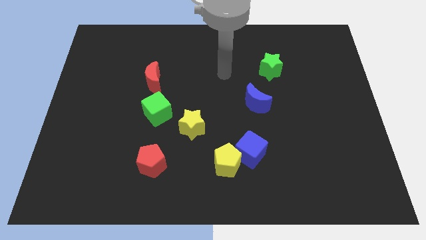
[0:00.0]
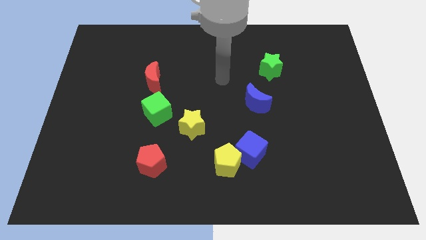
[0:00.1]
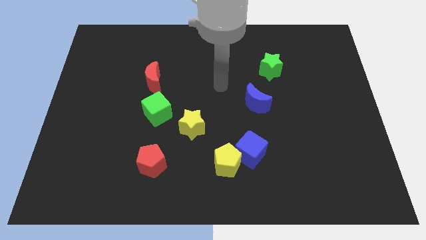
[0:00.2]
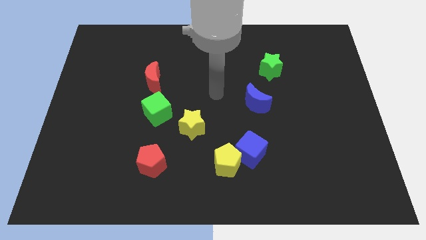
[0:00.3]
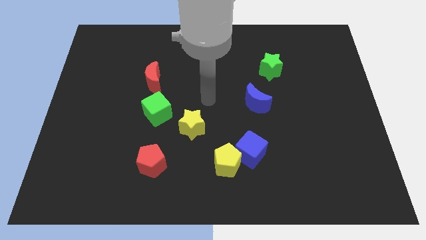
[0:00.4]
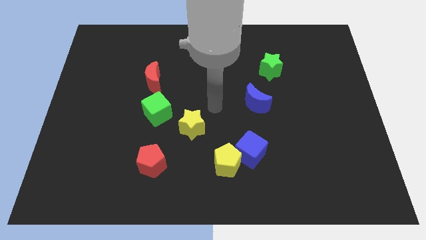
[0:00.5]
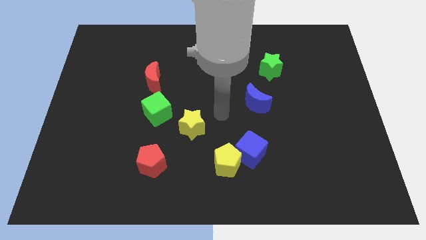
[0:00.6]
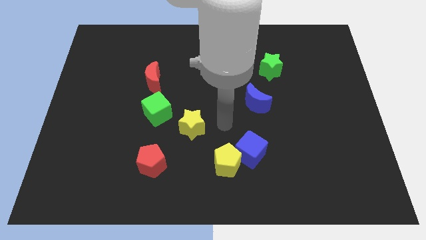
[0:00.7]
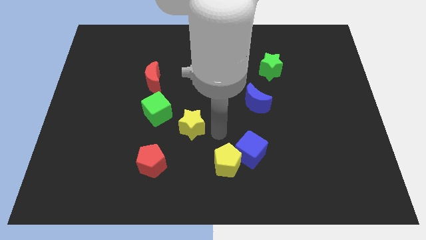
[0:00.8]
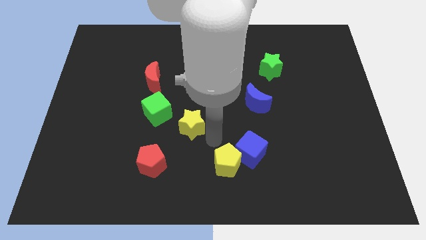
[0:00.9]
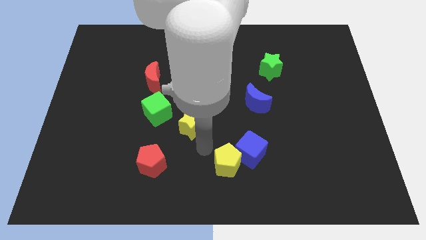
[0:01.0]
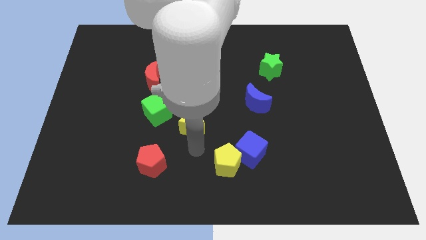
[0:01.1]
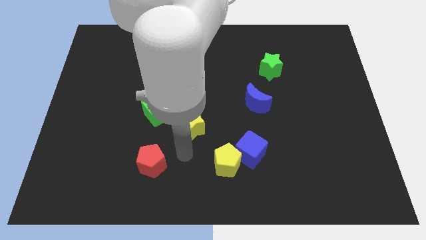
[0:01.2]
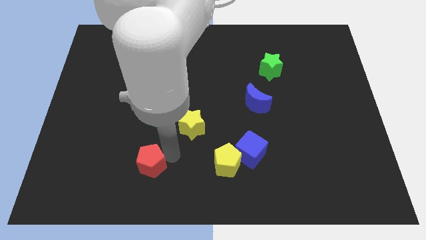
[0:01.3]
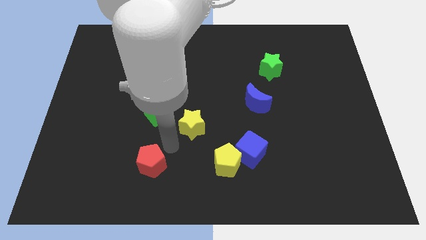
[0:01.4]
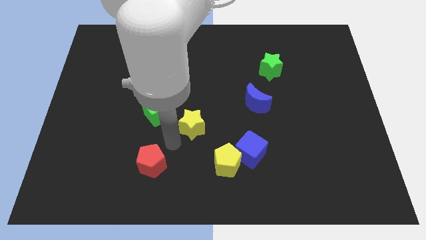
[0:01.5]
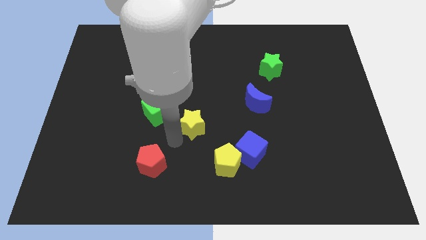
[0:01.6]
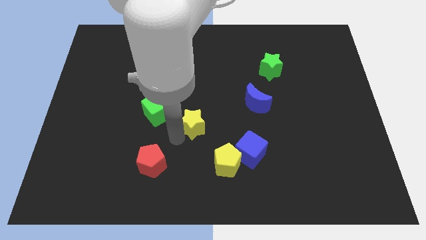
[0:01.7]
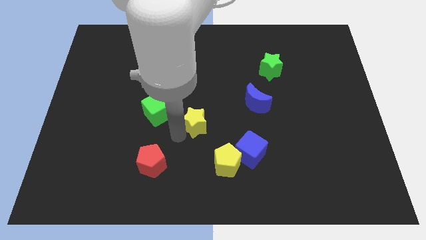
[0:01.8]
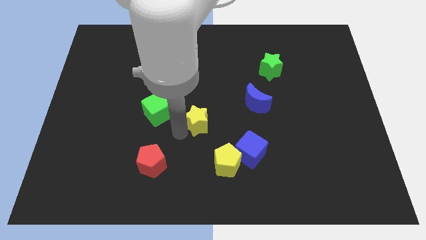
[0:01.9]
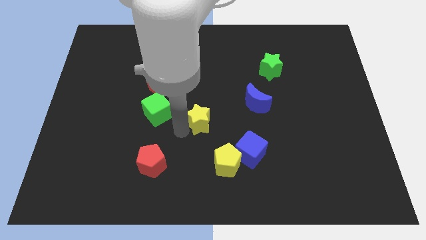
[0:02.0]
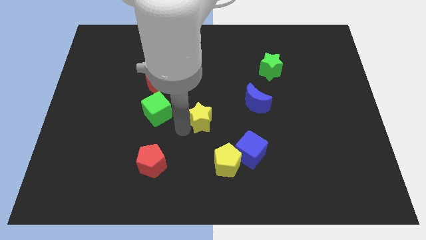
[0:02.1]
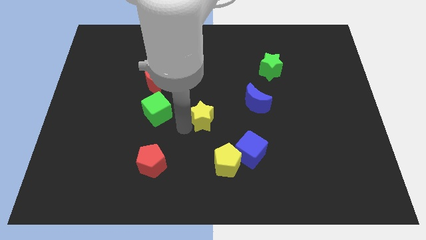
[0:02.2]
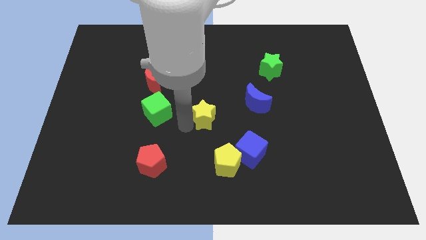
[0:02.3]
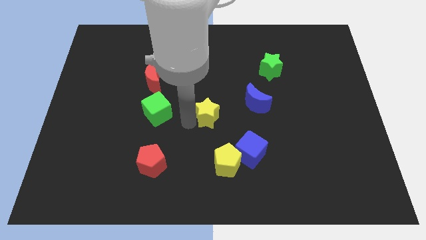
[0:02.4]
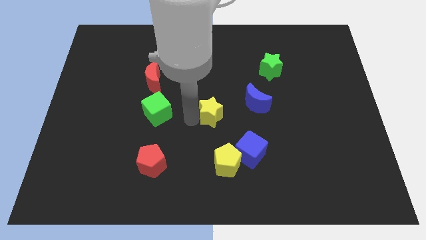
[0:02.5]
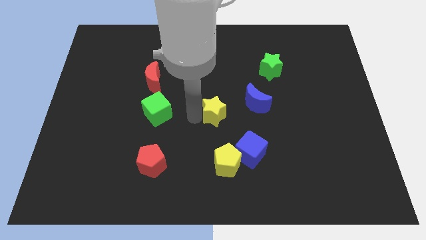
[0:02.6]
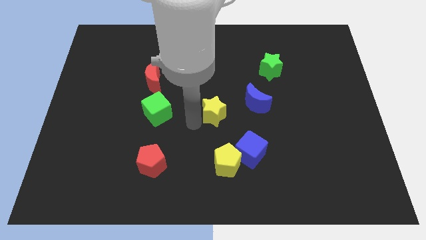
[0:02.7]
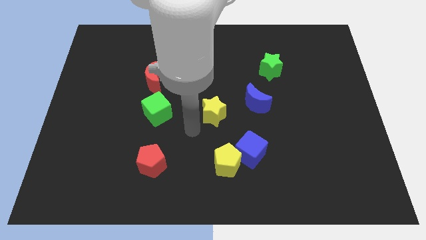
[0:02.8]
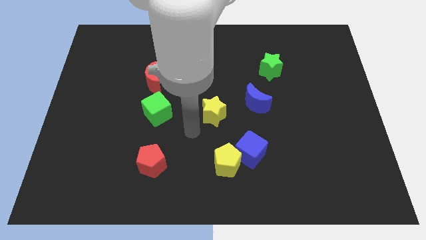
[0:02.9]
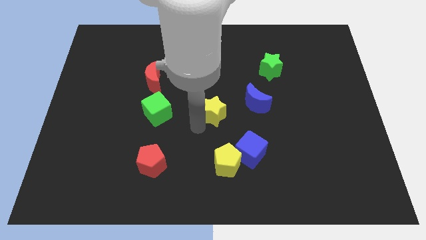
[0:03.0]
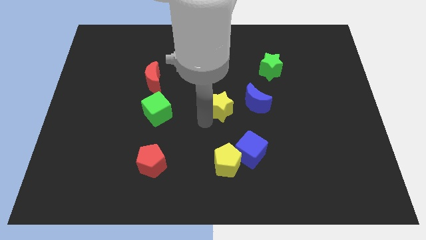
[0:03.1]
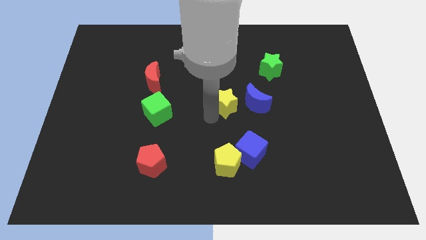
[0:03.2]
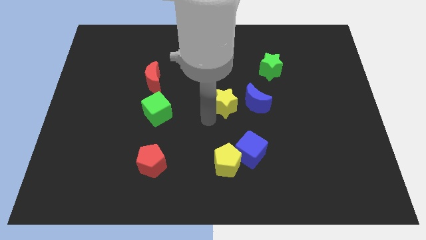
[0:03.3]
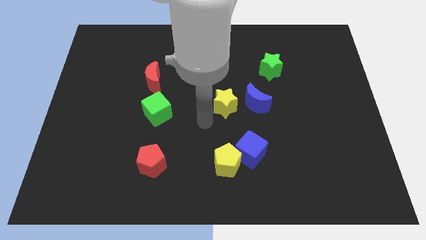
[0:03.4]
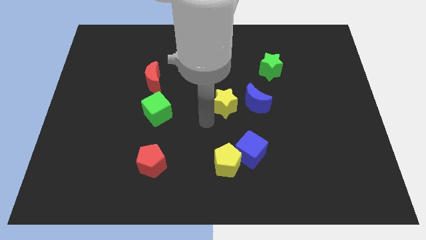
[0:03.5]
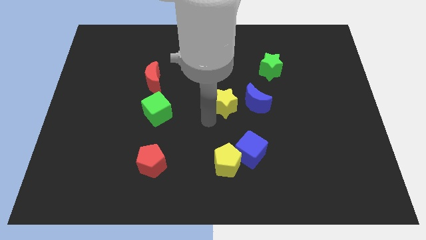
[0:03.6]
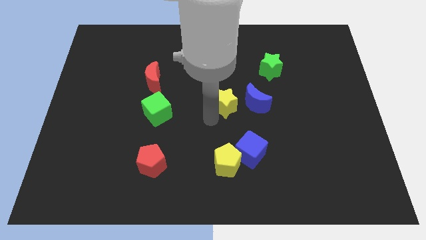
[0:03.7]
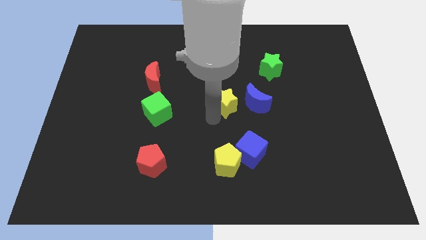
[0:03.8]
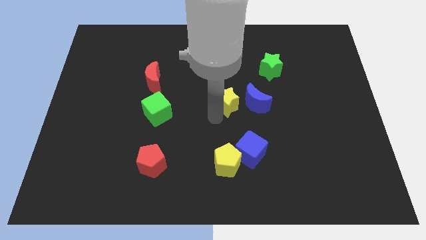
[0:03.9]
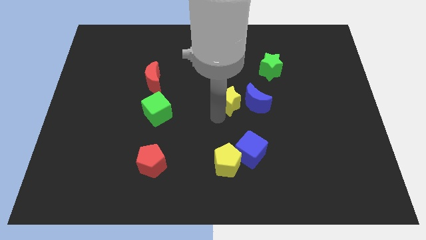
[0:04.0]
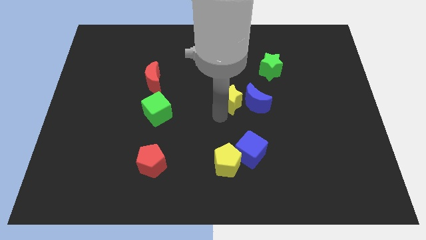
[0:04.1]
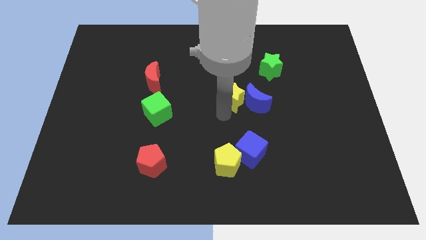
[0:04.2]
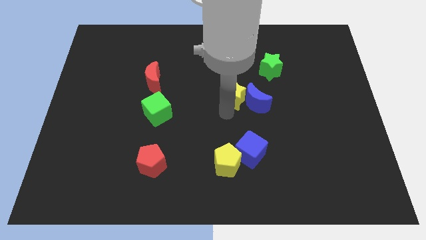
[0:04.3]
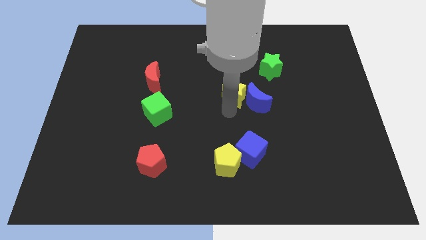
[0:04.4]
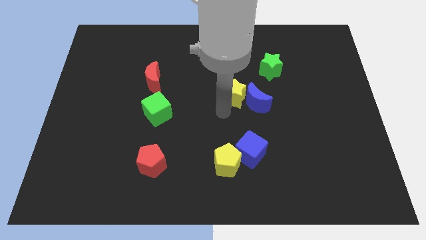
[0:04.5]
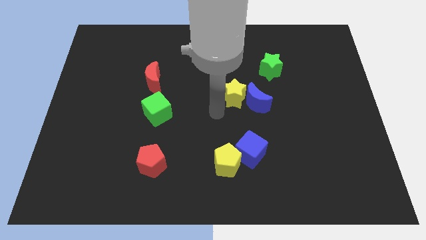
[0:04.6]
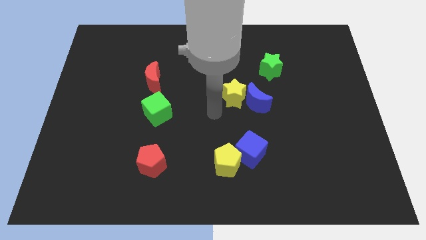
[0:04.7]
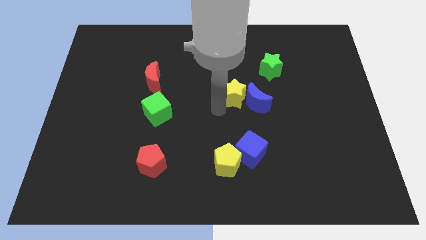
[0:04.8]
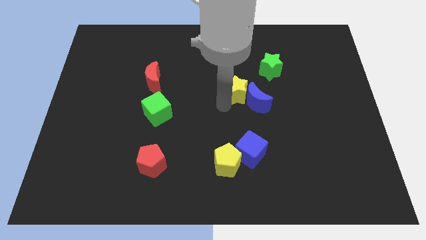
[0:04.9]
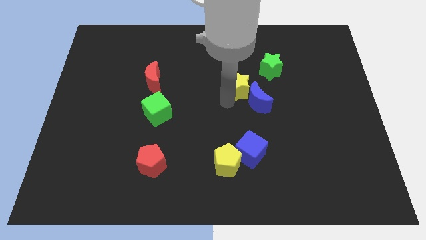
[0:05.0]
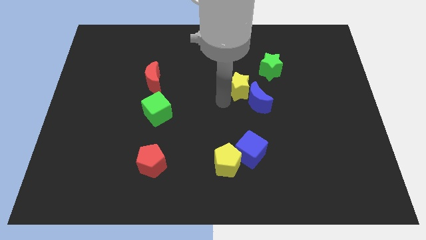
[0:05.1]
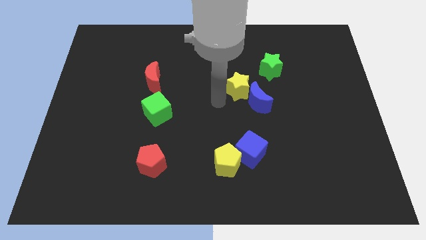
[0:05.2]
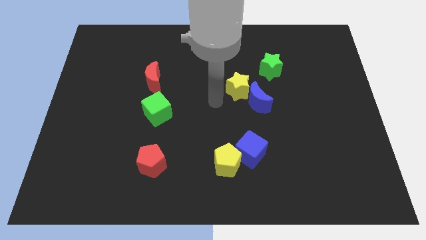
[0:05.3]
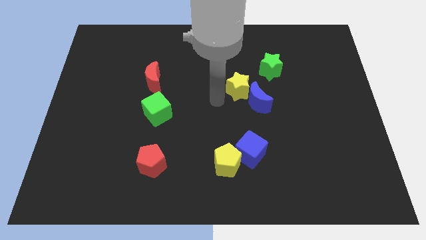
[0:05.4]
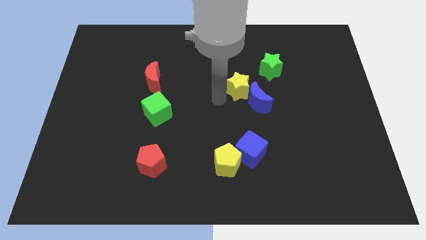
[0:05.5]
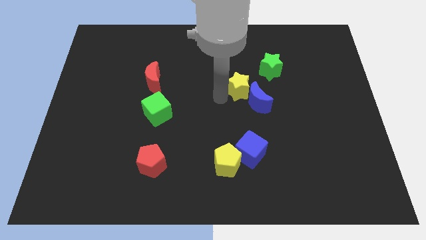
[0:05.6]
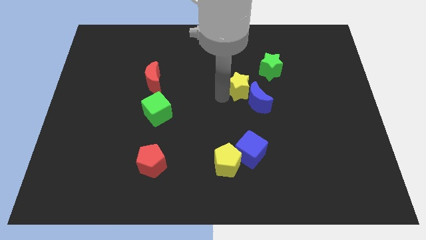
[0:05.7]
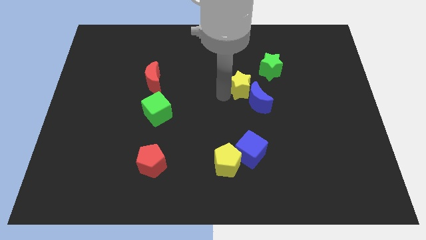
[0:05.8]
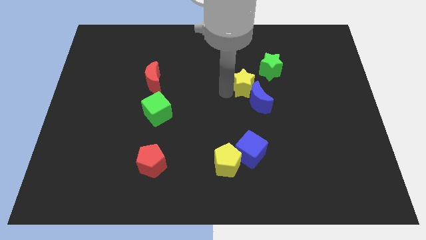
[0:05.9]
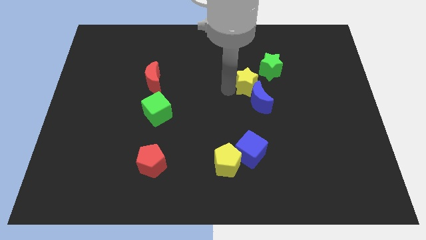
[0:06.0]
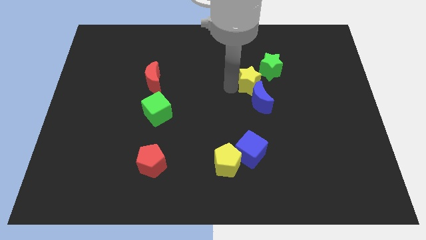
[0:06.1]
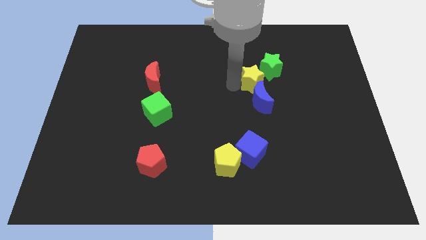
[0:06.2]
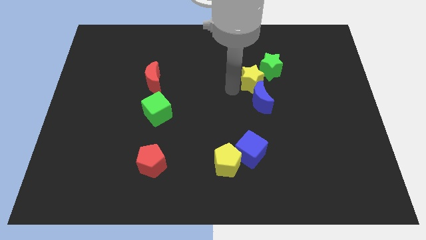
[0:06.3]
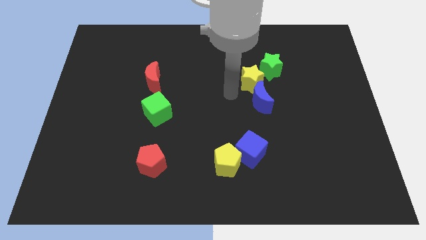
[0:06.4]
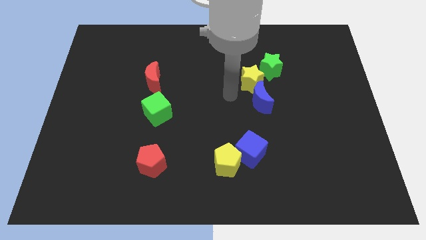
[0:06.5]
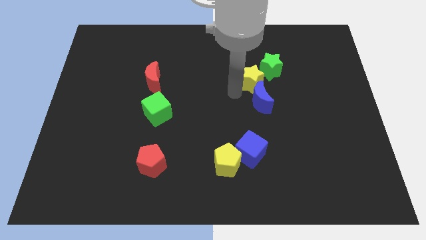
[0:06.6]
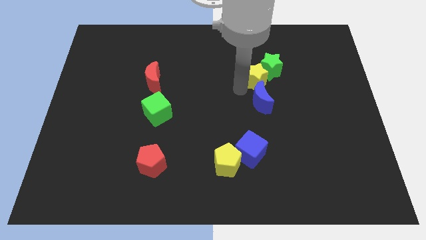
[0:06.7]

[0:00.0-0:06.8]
slide the yellow star next to the green star
